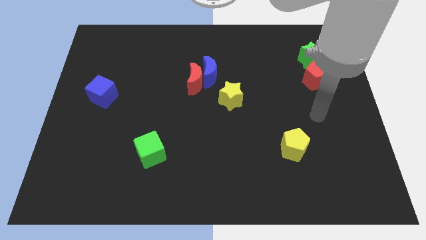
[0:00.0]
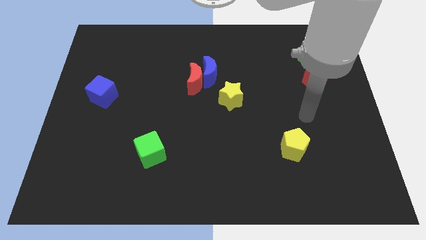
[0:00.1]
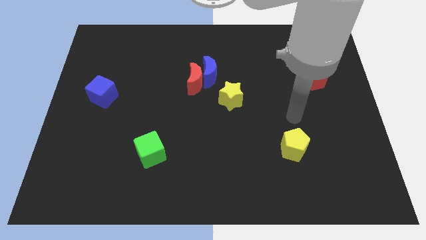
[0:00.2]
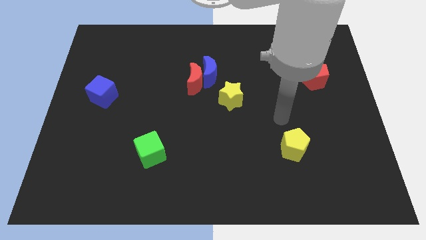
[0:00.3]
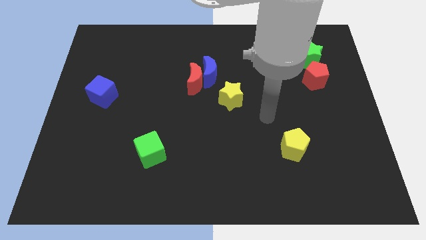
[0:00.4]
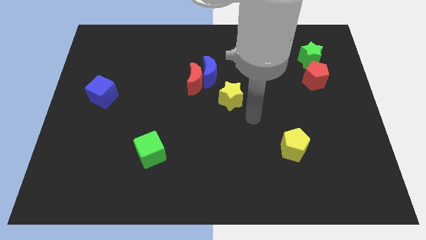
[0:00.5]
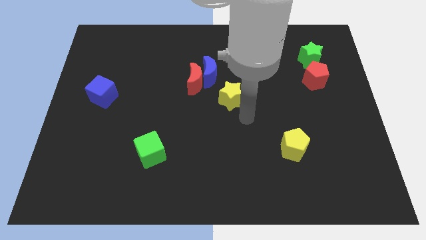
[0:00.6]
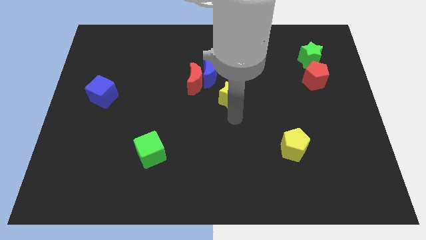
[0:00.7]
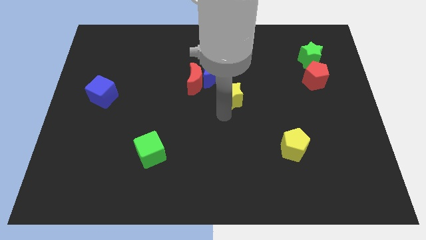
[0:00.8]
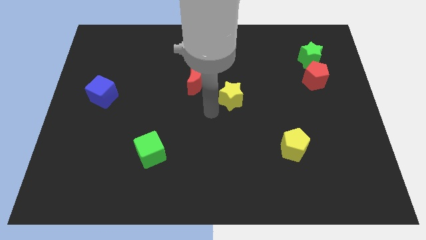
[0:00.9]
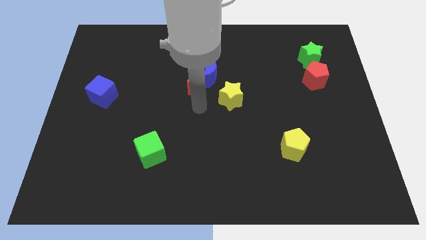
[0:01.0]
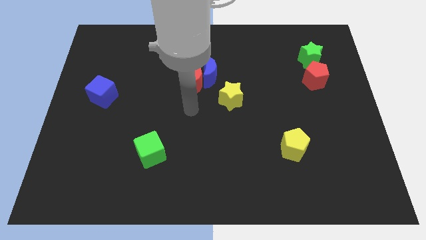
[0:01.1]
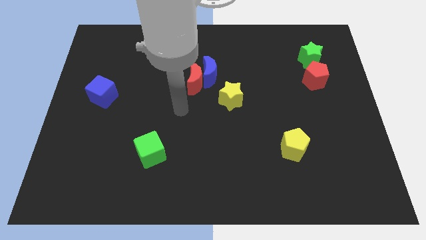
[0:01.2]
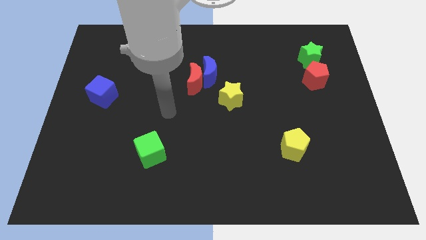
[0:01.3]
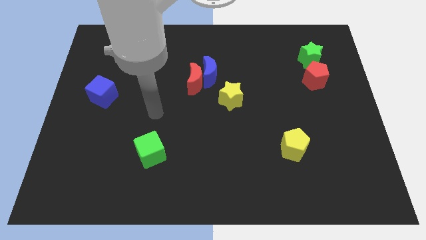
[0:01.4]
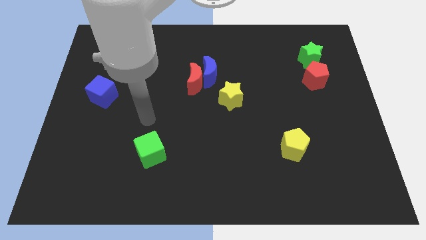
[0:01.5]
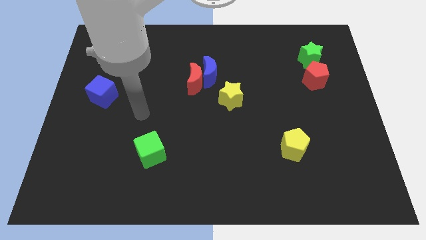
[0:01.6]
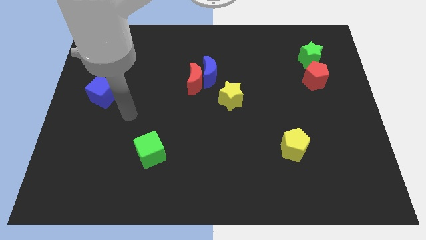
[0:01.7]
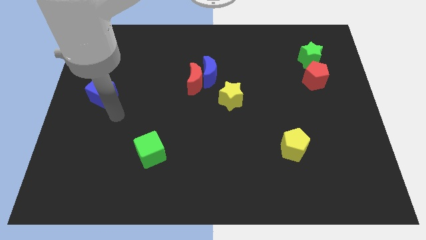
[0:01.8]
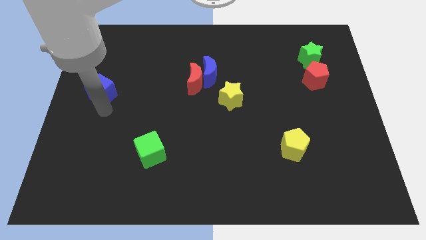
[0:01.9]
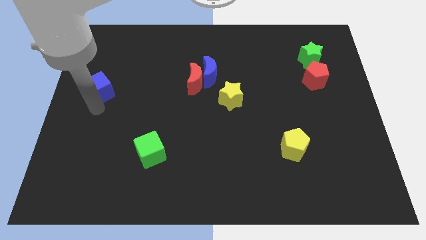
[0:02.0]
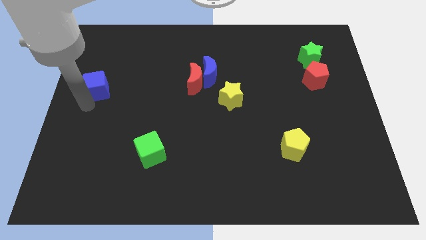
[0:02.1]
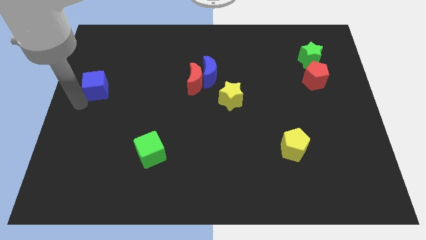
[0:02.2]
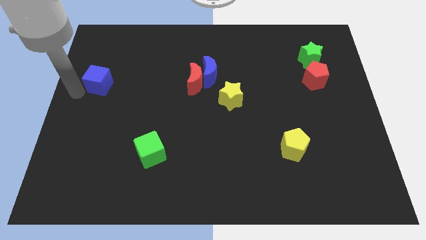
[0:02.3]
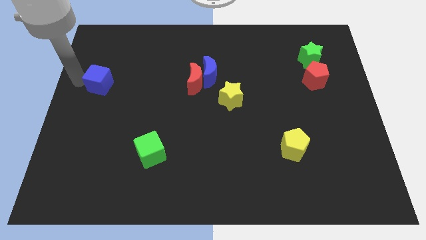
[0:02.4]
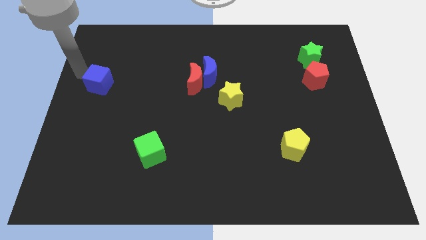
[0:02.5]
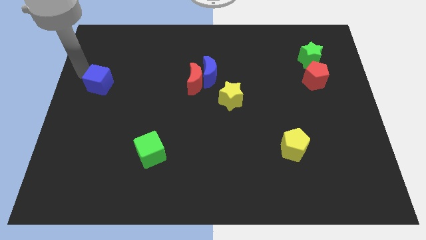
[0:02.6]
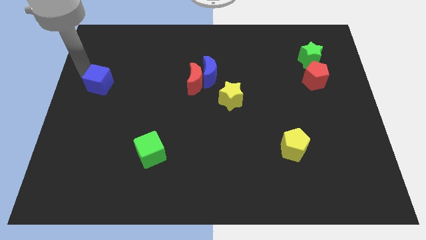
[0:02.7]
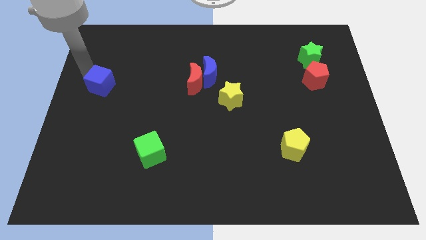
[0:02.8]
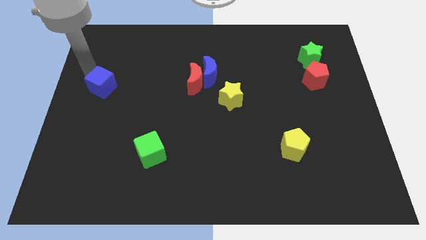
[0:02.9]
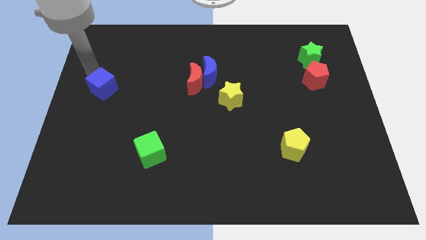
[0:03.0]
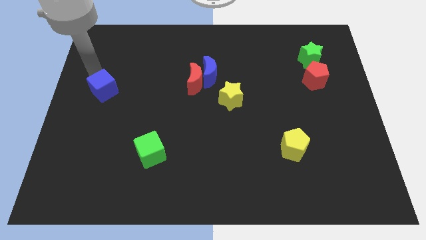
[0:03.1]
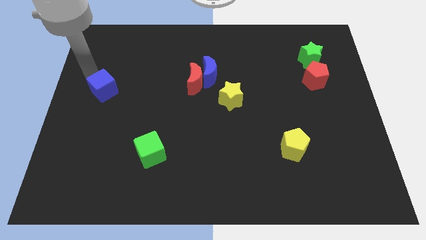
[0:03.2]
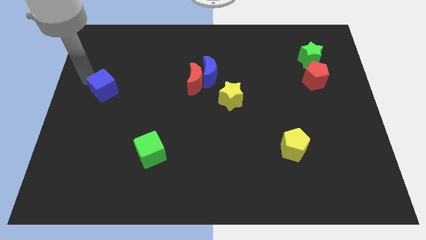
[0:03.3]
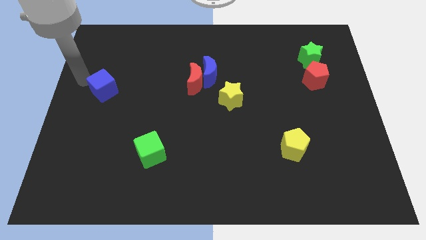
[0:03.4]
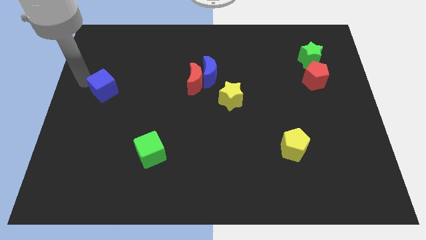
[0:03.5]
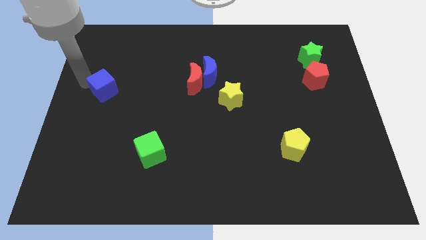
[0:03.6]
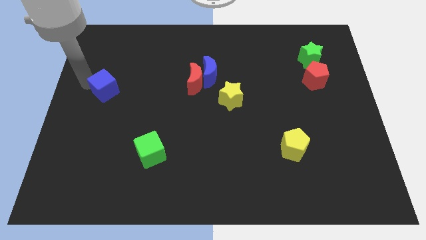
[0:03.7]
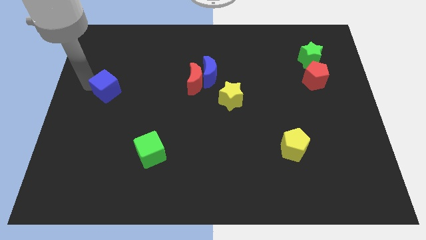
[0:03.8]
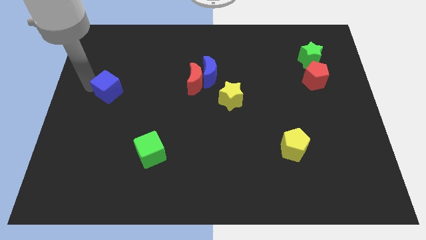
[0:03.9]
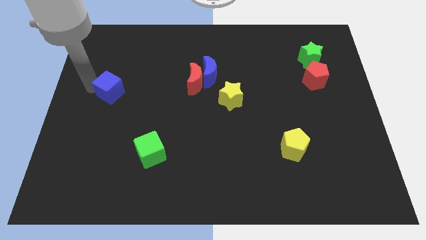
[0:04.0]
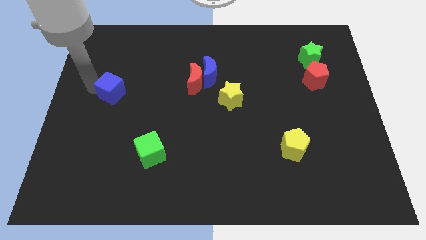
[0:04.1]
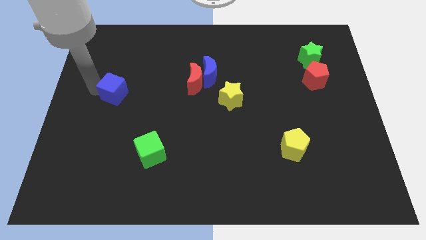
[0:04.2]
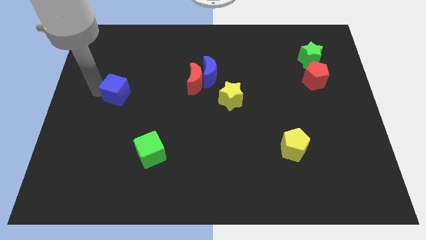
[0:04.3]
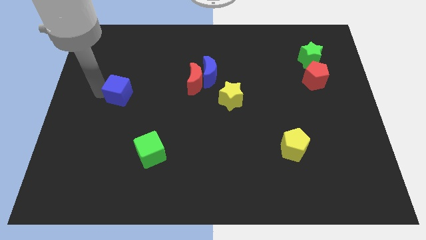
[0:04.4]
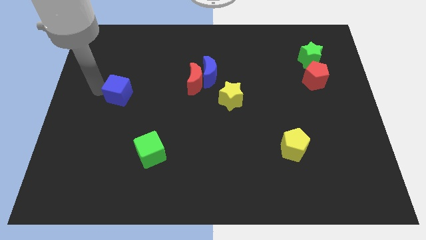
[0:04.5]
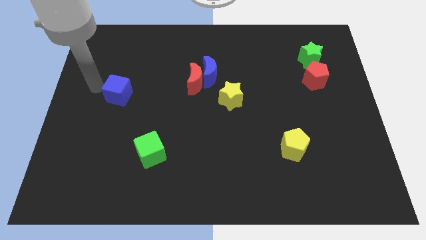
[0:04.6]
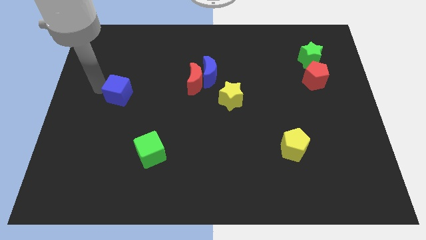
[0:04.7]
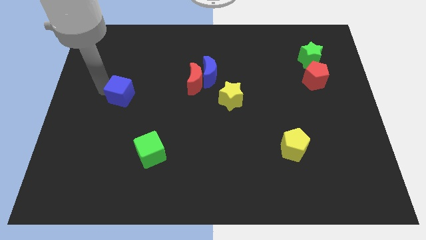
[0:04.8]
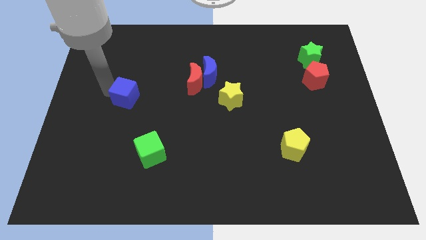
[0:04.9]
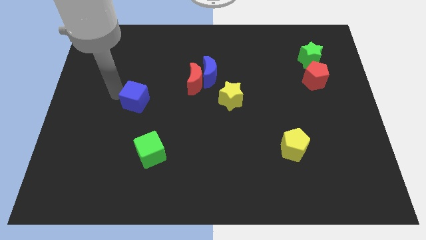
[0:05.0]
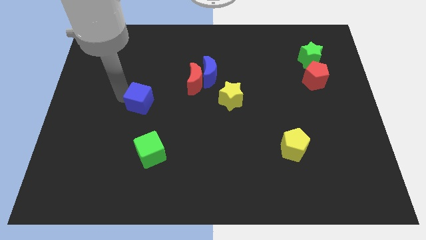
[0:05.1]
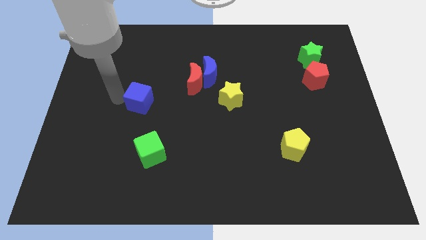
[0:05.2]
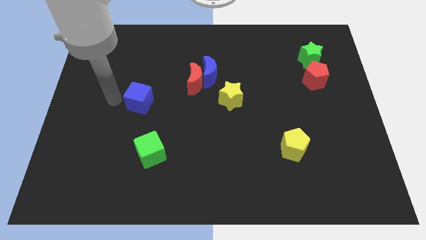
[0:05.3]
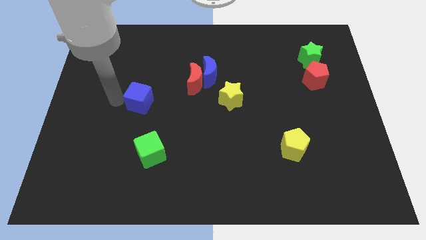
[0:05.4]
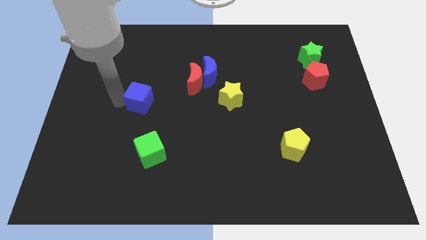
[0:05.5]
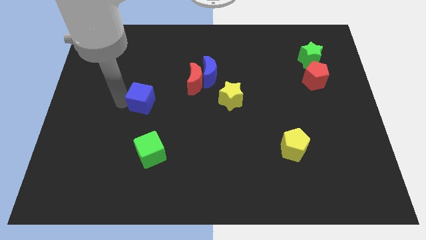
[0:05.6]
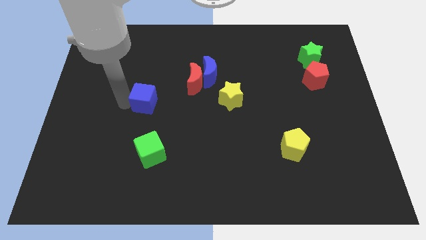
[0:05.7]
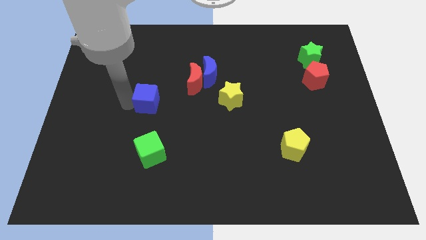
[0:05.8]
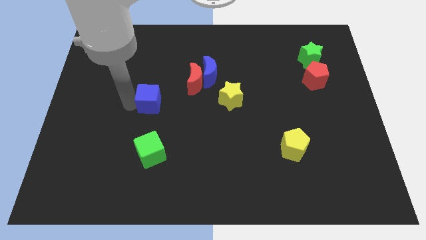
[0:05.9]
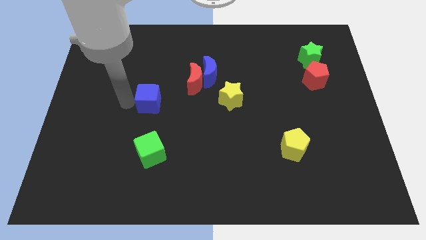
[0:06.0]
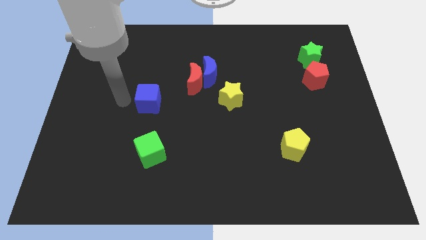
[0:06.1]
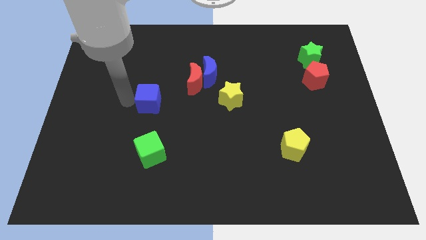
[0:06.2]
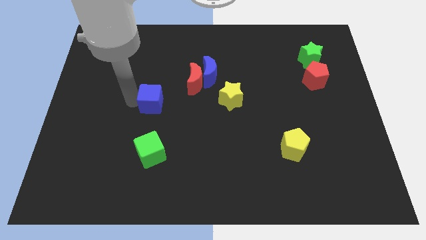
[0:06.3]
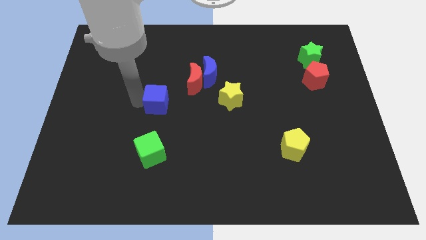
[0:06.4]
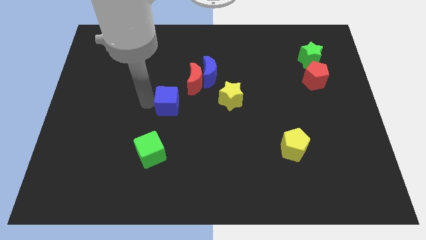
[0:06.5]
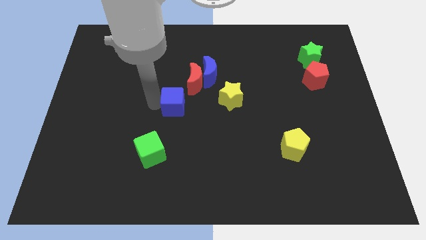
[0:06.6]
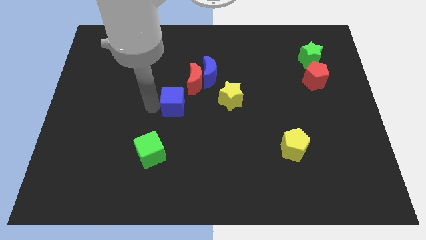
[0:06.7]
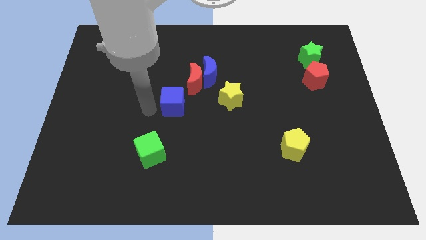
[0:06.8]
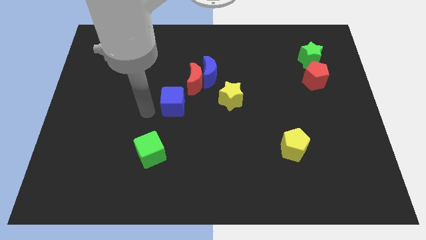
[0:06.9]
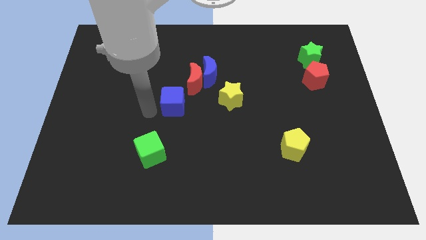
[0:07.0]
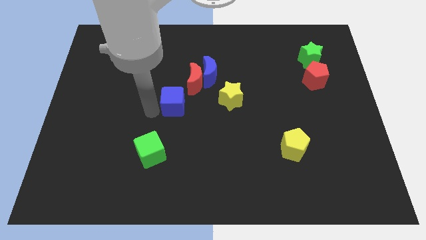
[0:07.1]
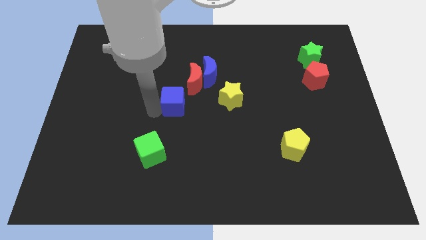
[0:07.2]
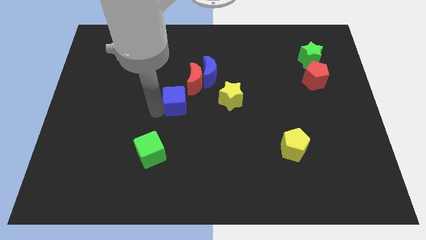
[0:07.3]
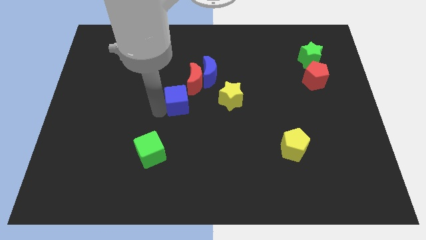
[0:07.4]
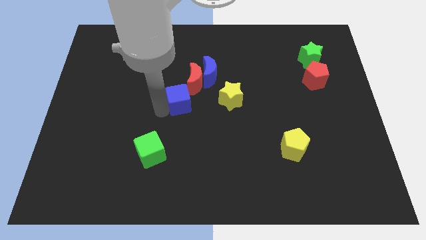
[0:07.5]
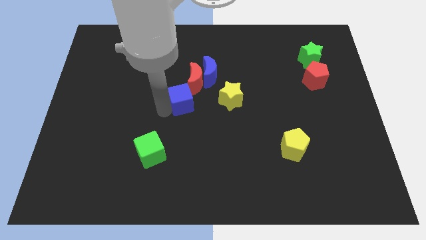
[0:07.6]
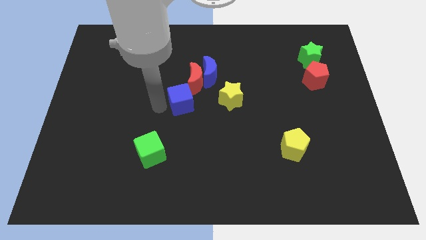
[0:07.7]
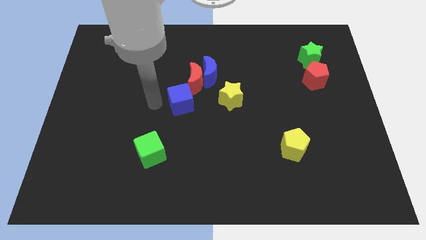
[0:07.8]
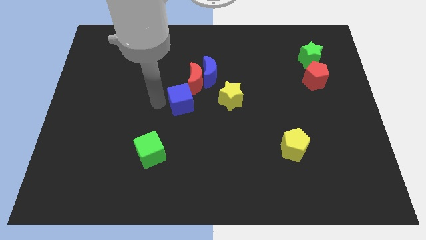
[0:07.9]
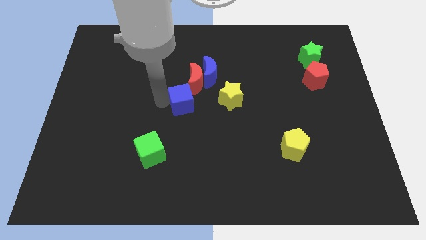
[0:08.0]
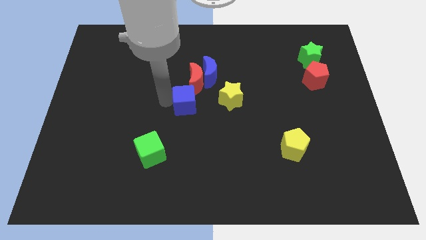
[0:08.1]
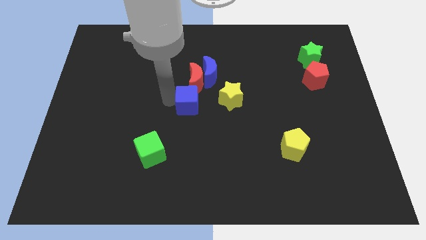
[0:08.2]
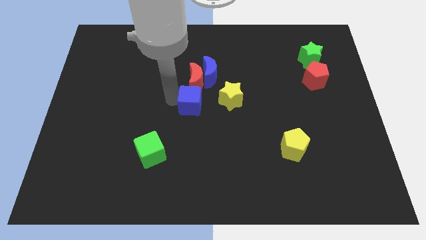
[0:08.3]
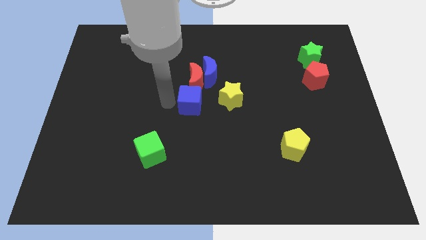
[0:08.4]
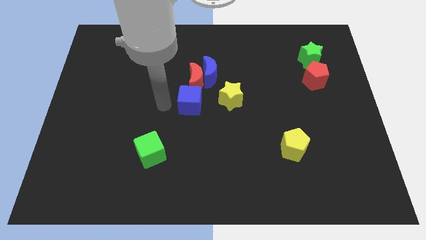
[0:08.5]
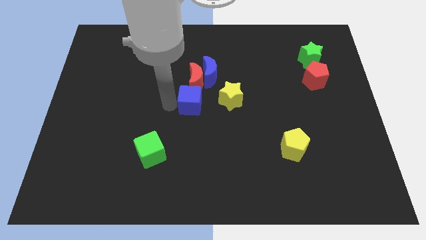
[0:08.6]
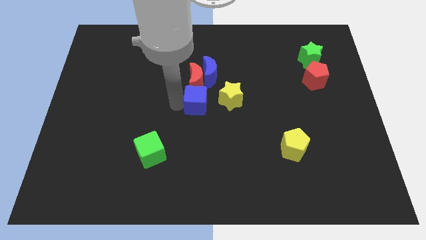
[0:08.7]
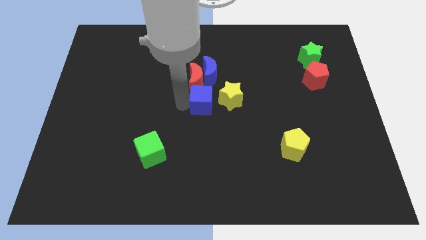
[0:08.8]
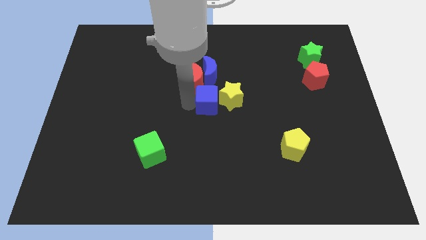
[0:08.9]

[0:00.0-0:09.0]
push the blue cube next to the yellow star
